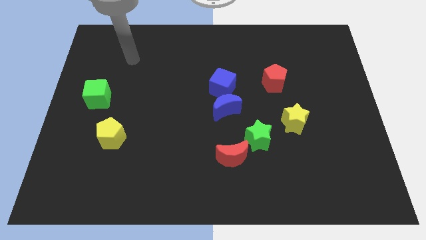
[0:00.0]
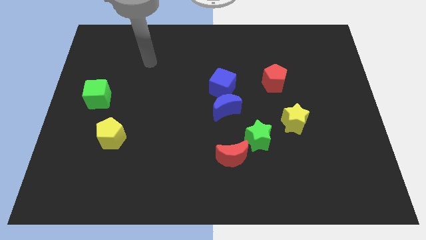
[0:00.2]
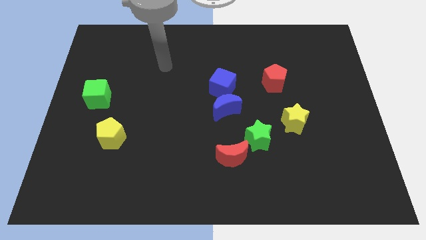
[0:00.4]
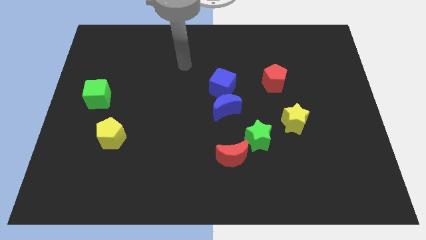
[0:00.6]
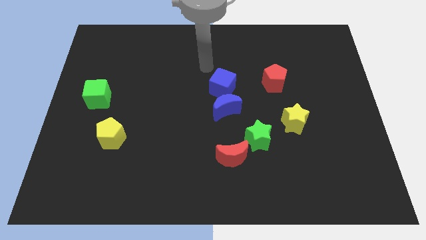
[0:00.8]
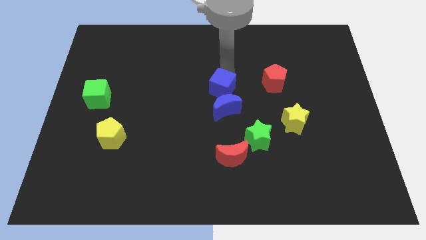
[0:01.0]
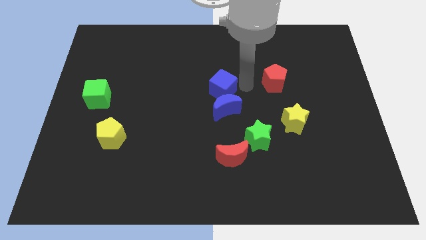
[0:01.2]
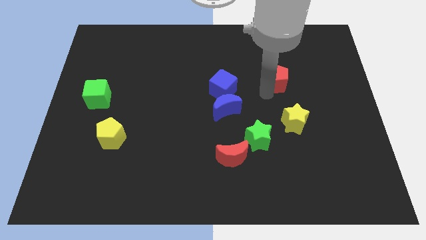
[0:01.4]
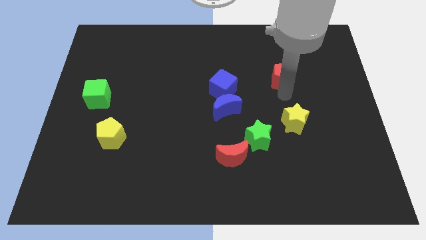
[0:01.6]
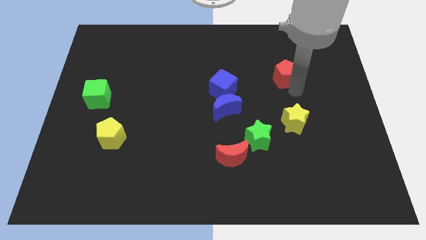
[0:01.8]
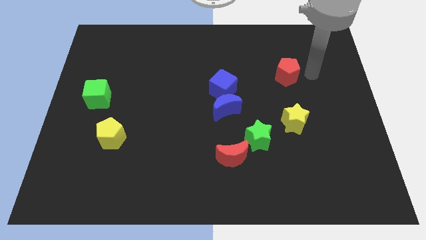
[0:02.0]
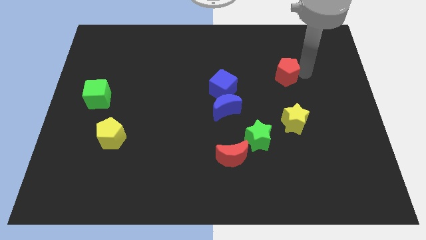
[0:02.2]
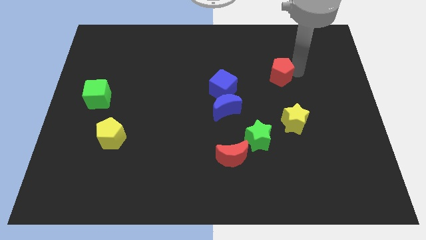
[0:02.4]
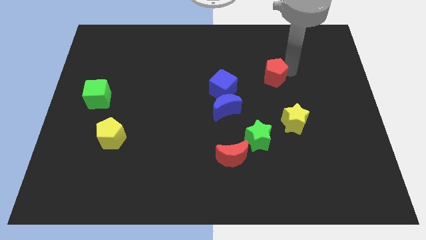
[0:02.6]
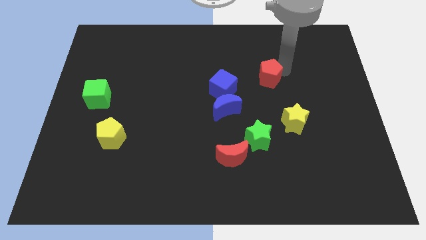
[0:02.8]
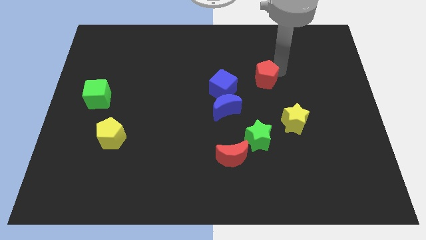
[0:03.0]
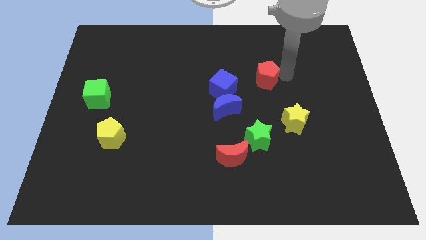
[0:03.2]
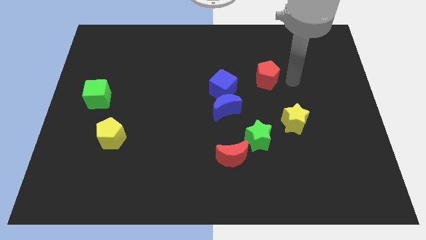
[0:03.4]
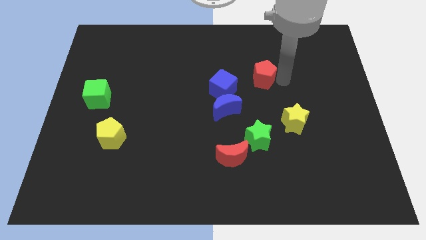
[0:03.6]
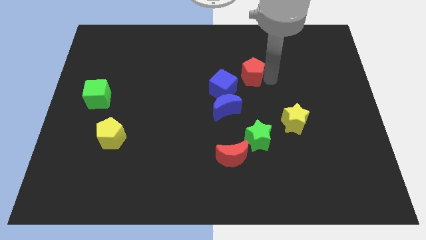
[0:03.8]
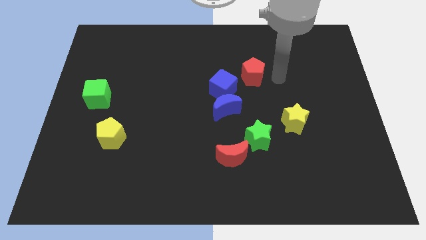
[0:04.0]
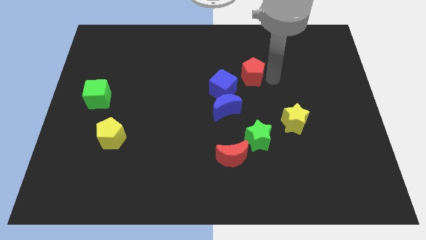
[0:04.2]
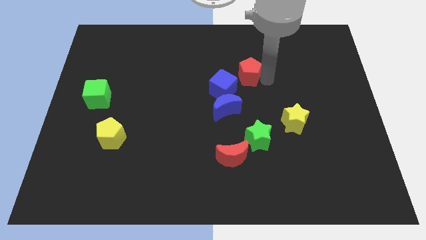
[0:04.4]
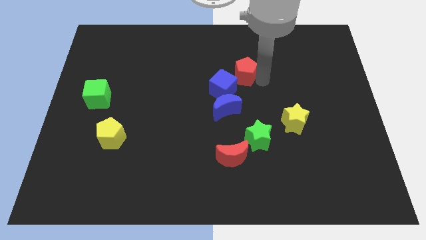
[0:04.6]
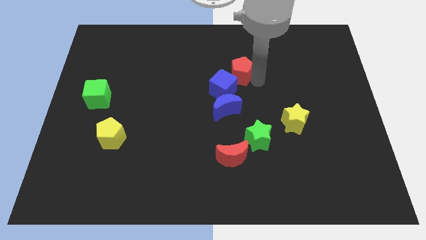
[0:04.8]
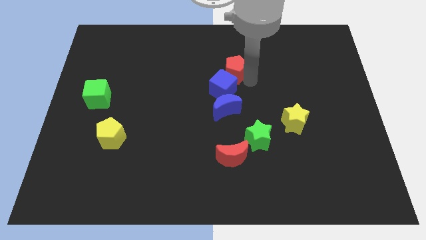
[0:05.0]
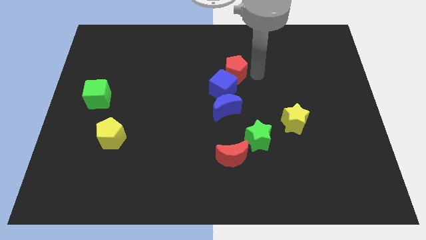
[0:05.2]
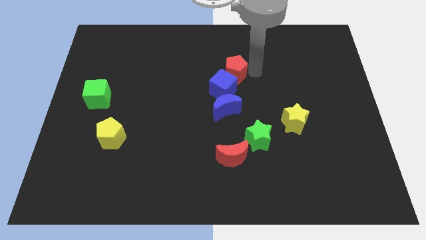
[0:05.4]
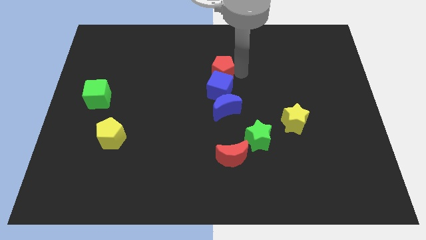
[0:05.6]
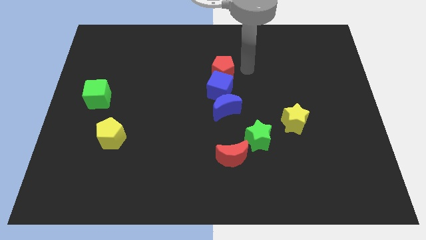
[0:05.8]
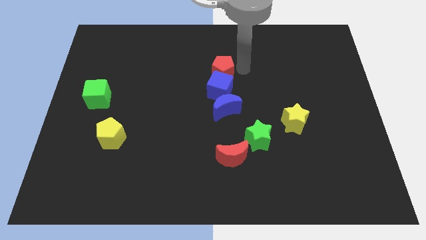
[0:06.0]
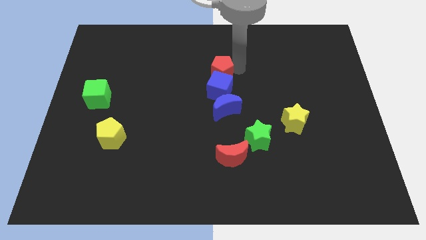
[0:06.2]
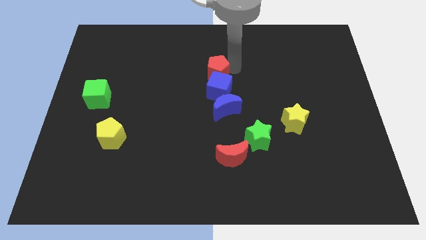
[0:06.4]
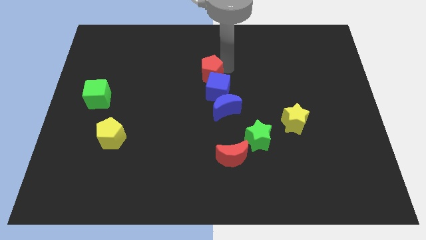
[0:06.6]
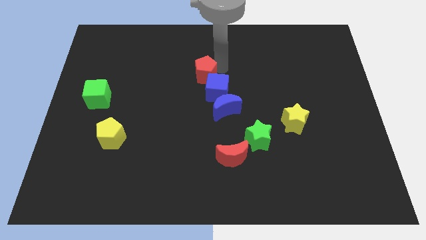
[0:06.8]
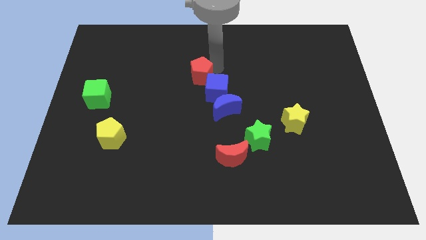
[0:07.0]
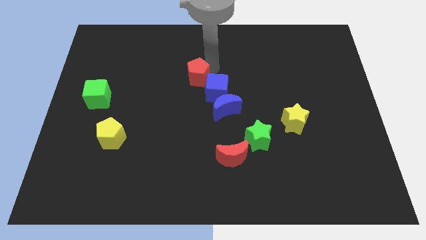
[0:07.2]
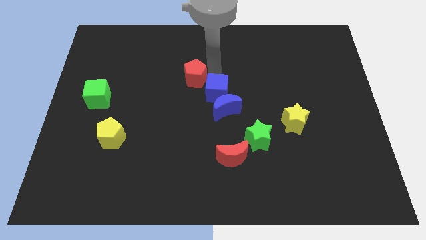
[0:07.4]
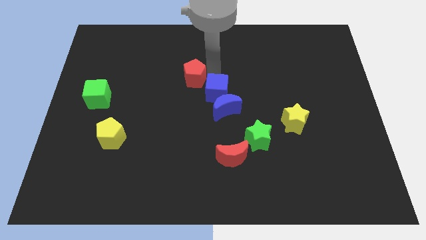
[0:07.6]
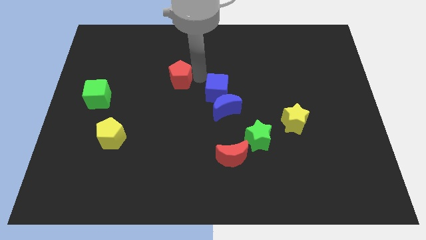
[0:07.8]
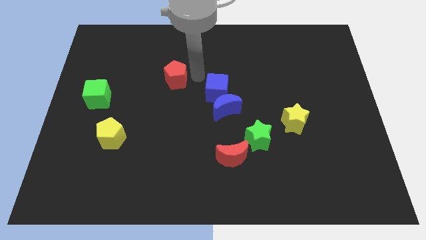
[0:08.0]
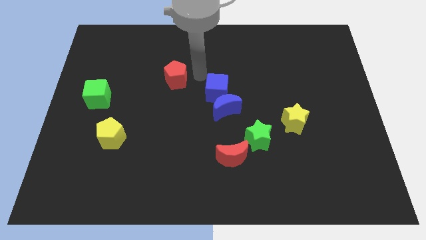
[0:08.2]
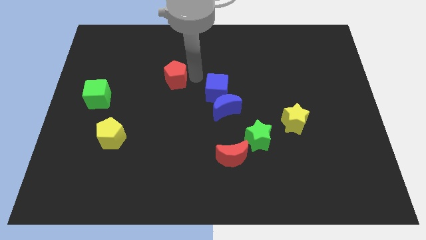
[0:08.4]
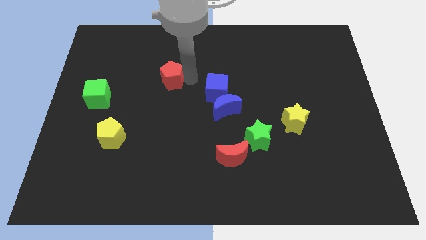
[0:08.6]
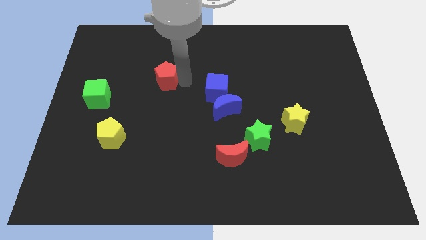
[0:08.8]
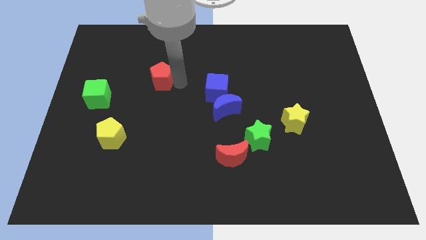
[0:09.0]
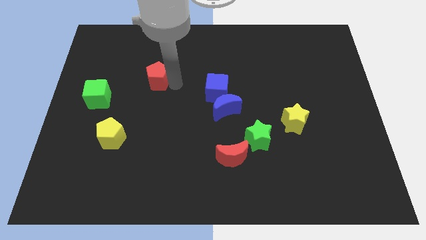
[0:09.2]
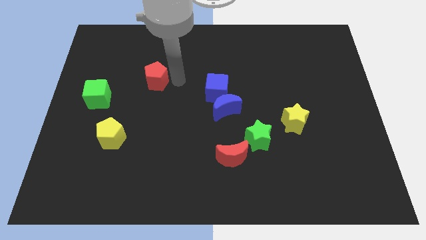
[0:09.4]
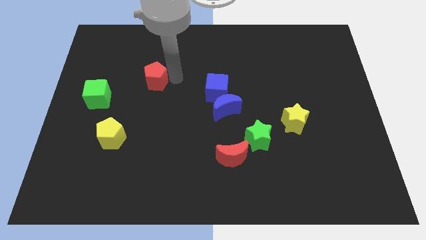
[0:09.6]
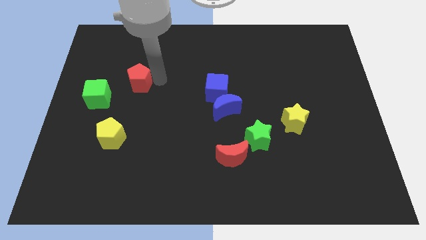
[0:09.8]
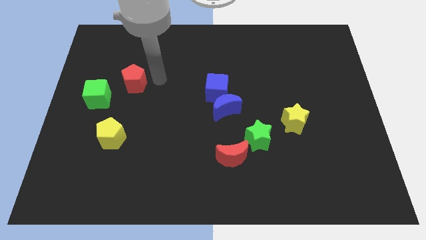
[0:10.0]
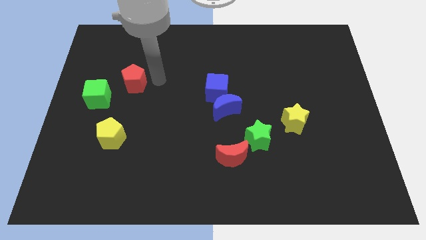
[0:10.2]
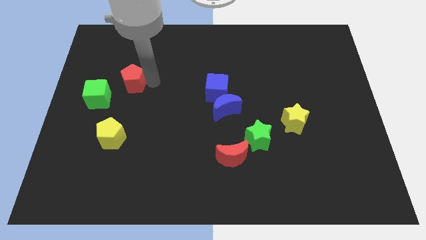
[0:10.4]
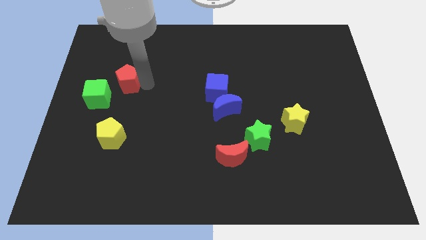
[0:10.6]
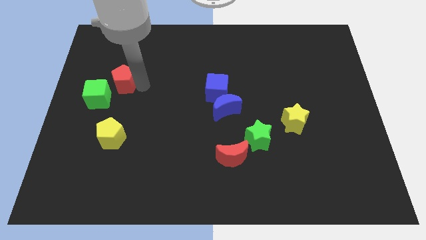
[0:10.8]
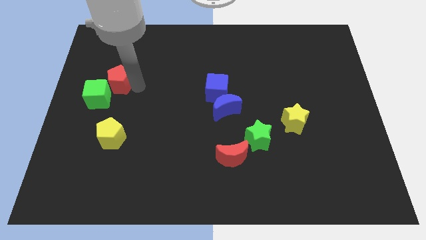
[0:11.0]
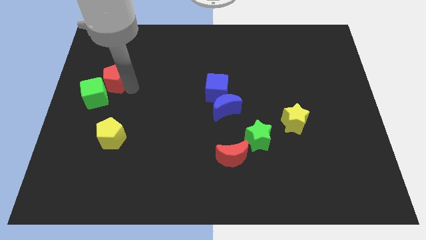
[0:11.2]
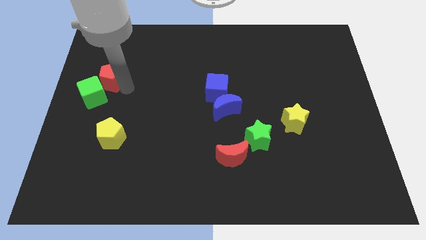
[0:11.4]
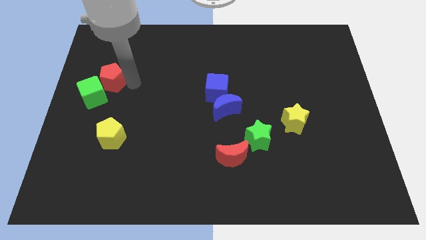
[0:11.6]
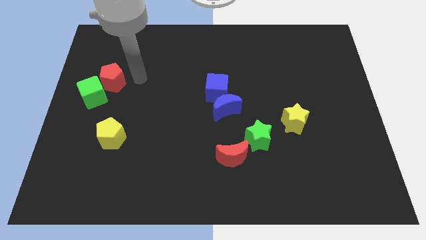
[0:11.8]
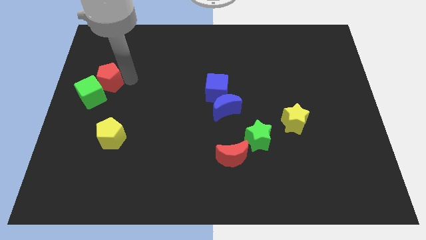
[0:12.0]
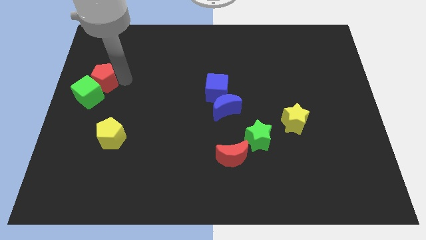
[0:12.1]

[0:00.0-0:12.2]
slide the red pentagon to the center left
